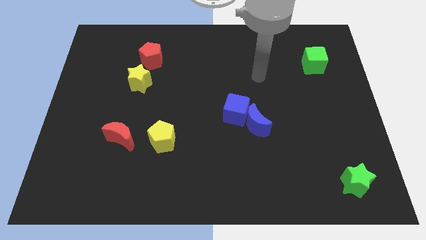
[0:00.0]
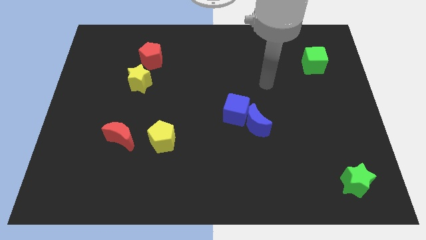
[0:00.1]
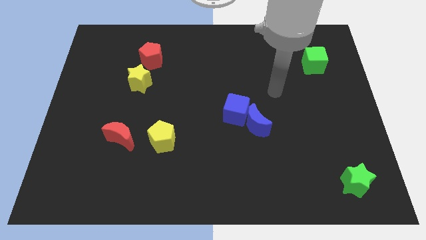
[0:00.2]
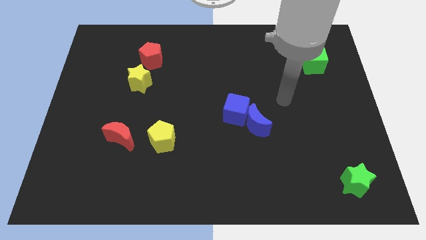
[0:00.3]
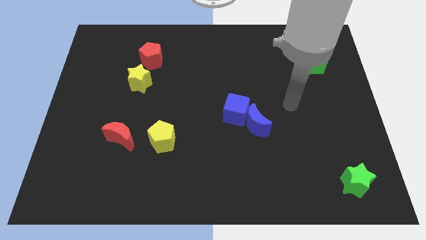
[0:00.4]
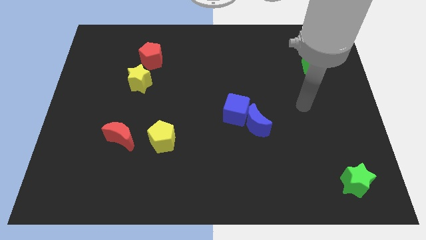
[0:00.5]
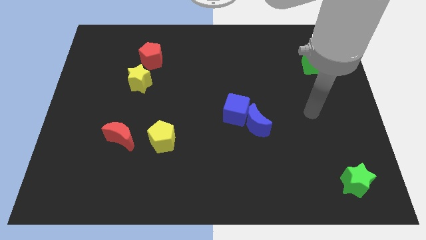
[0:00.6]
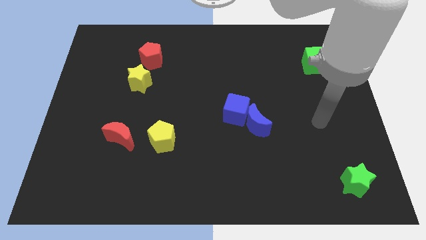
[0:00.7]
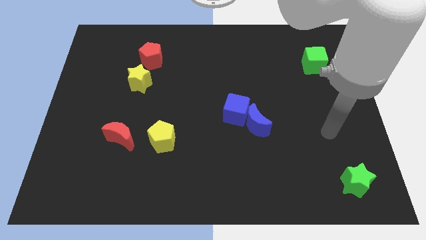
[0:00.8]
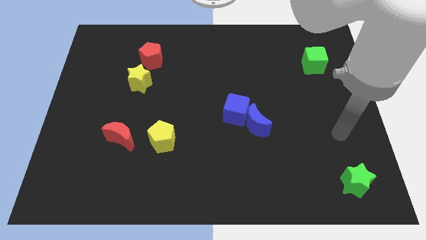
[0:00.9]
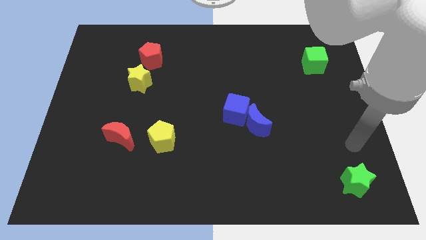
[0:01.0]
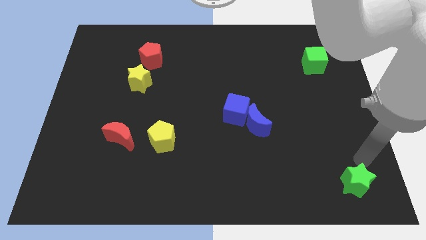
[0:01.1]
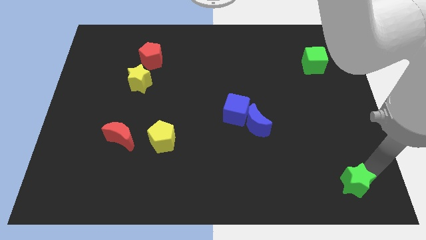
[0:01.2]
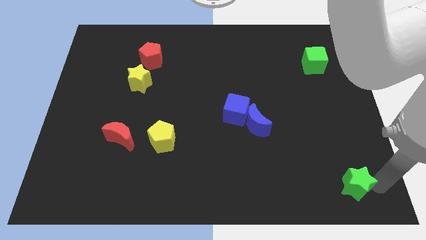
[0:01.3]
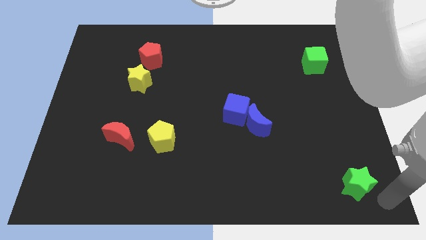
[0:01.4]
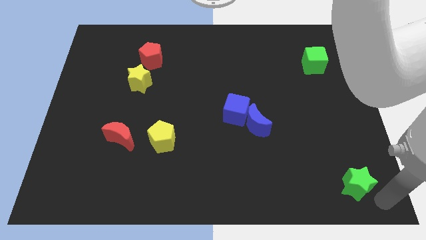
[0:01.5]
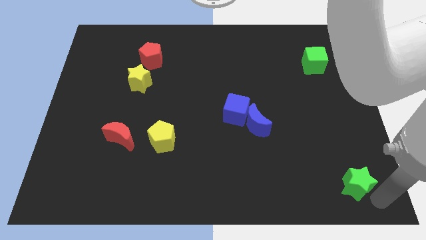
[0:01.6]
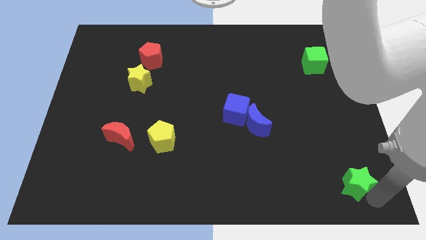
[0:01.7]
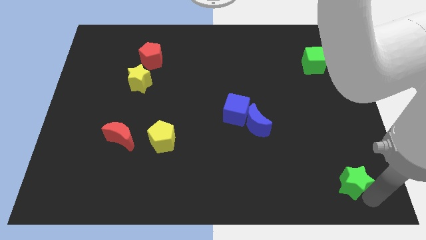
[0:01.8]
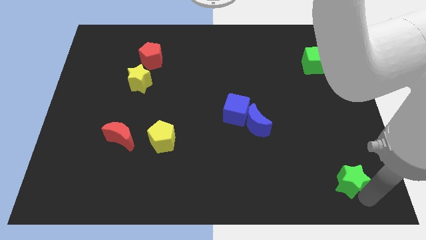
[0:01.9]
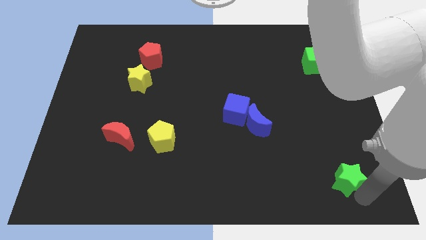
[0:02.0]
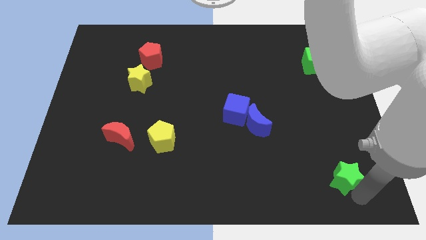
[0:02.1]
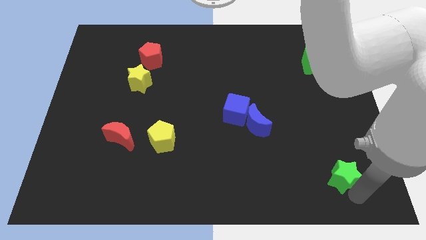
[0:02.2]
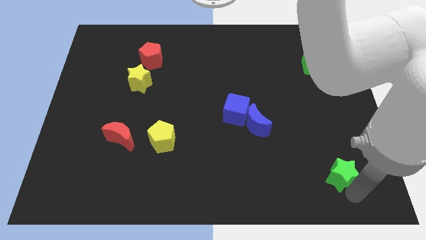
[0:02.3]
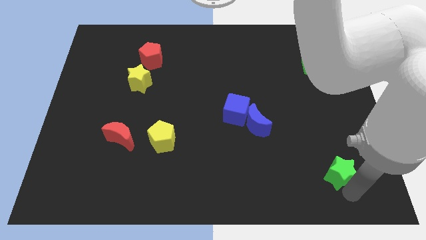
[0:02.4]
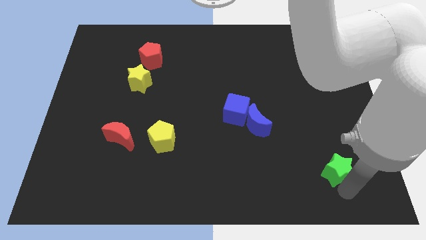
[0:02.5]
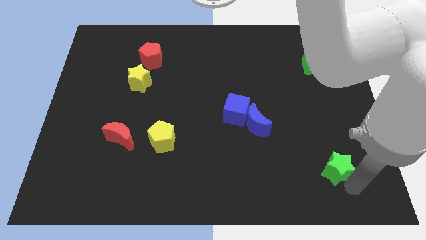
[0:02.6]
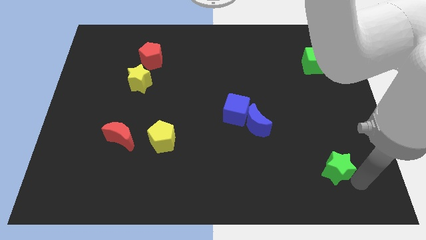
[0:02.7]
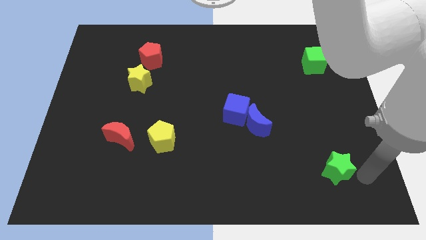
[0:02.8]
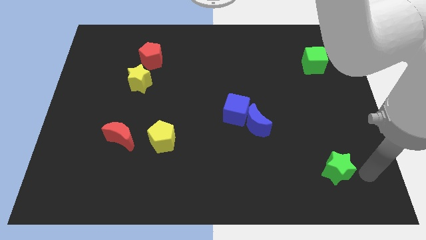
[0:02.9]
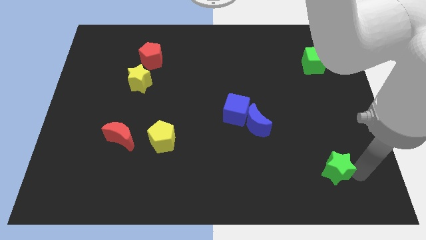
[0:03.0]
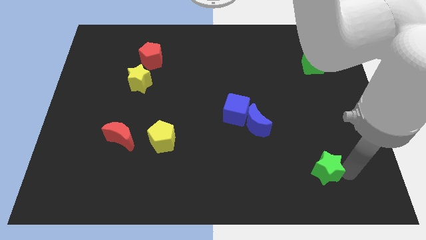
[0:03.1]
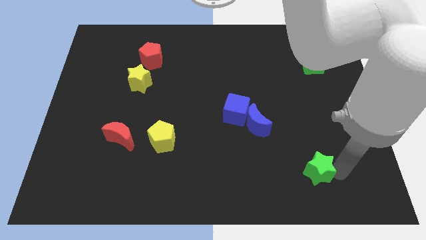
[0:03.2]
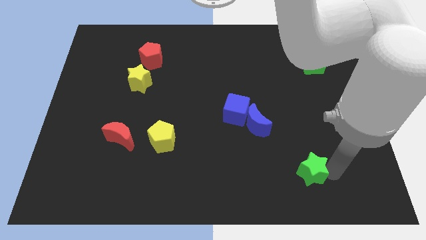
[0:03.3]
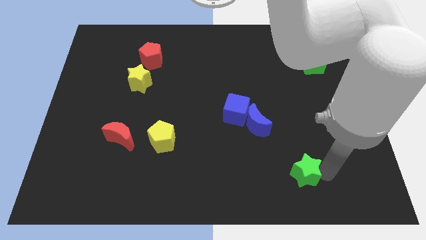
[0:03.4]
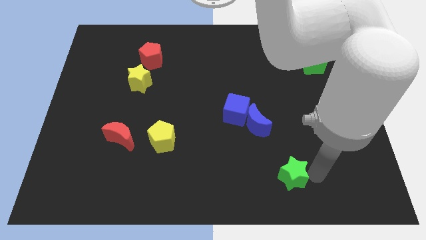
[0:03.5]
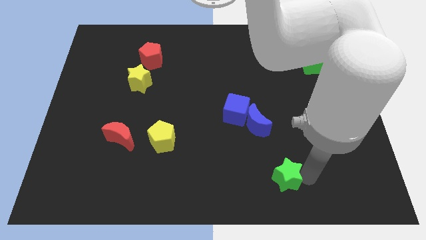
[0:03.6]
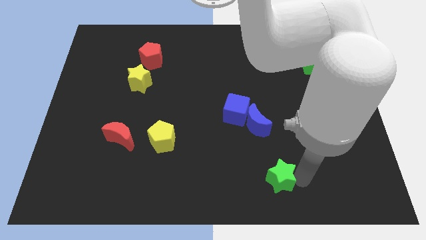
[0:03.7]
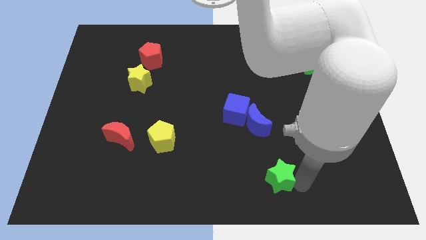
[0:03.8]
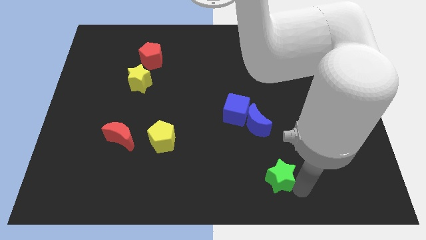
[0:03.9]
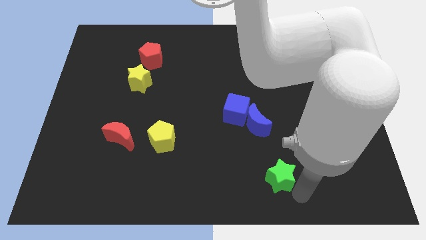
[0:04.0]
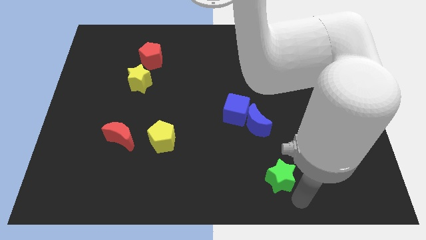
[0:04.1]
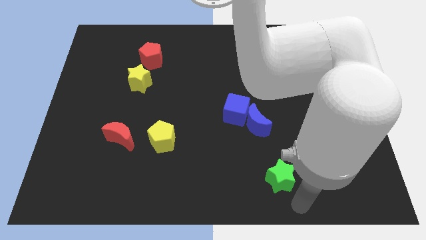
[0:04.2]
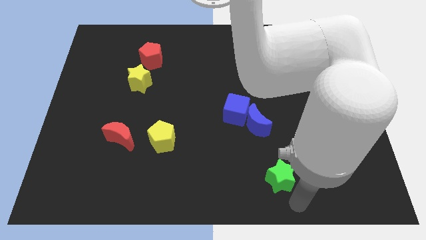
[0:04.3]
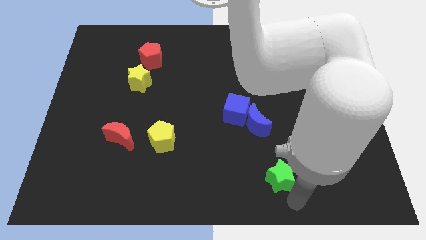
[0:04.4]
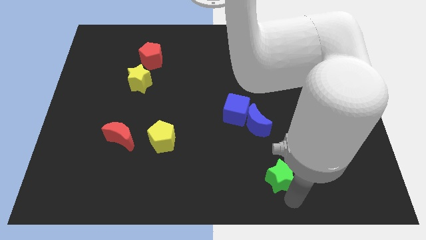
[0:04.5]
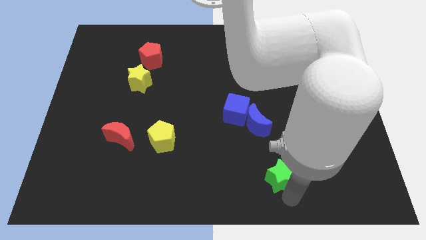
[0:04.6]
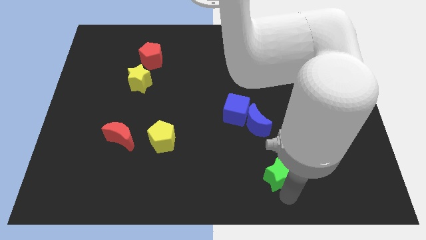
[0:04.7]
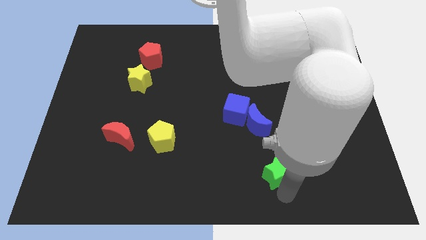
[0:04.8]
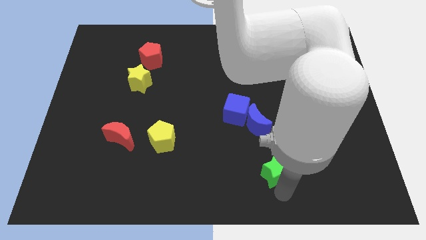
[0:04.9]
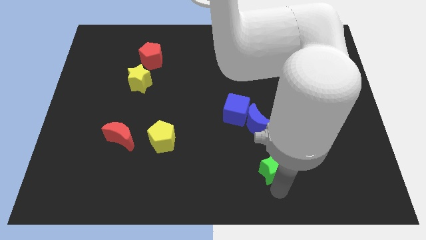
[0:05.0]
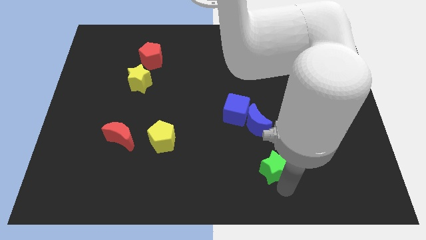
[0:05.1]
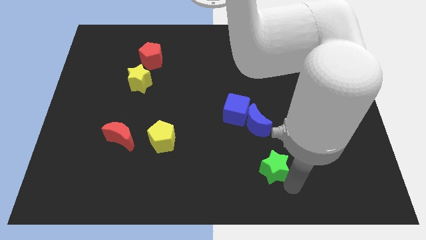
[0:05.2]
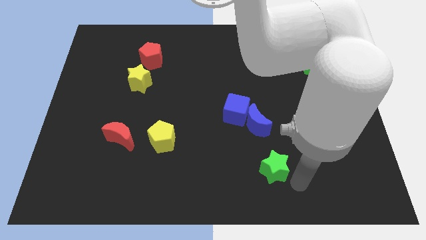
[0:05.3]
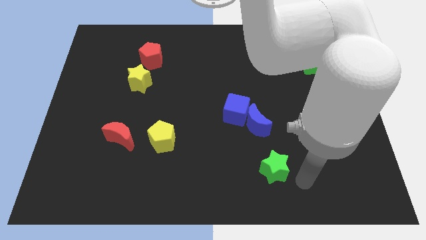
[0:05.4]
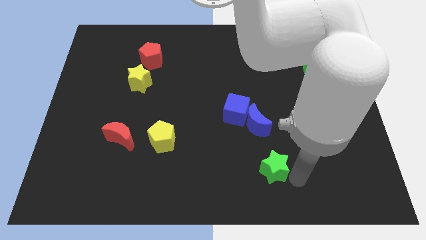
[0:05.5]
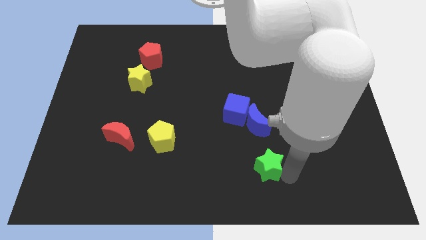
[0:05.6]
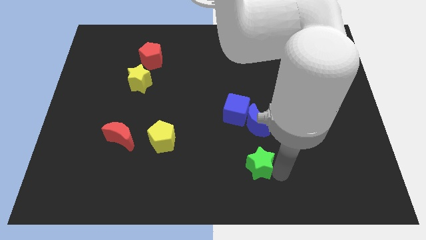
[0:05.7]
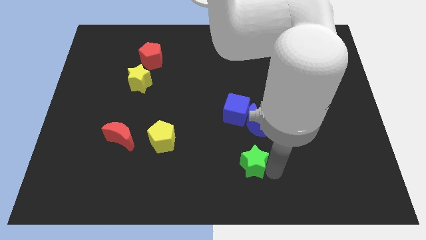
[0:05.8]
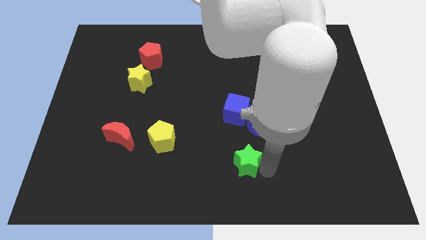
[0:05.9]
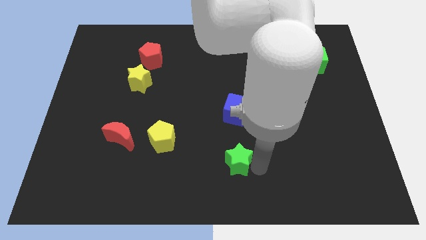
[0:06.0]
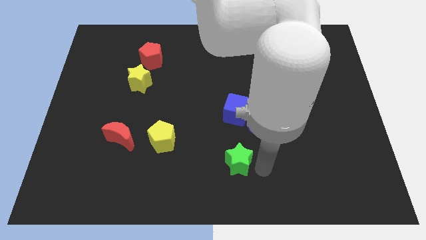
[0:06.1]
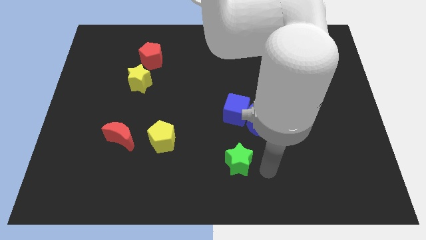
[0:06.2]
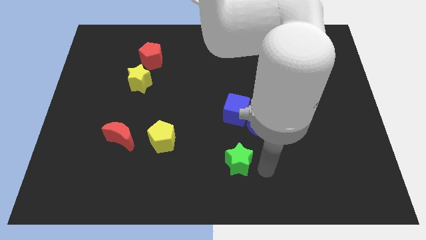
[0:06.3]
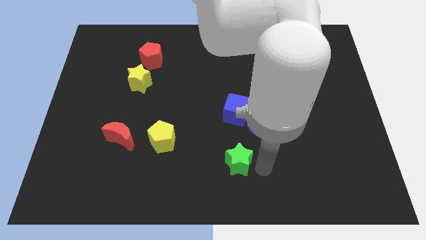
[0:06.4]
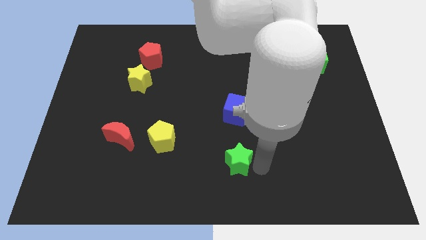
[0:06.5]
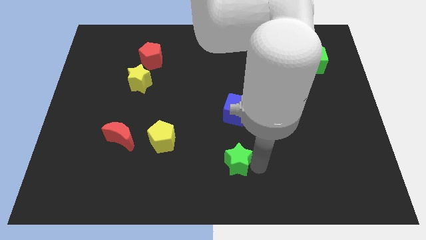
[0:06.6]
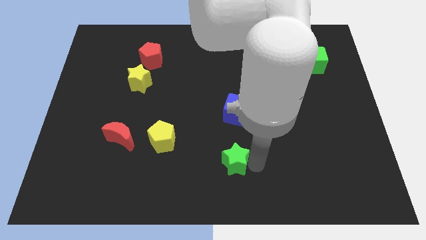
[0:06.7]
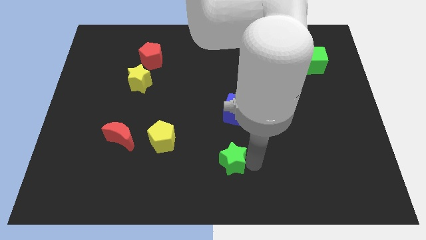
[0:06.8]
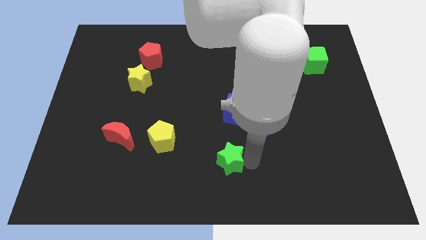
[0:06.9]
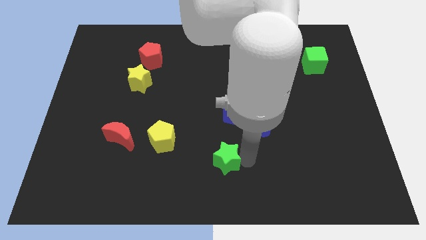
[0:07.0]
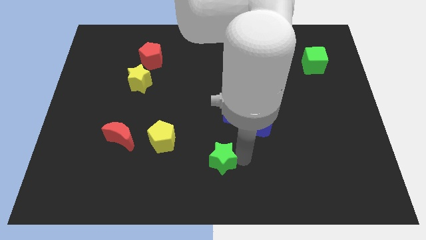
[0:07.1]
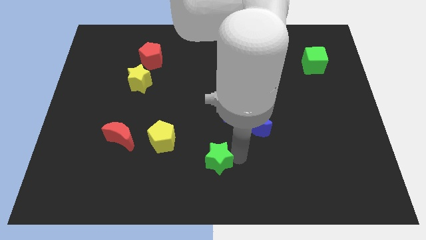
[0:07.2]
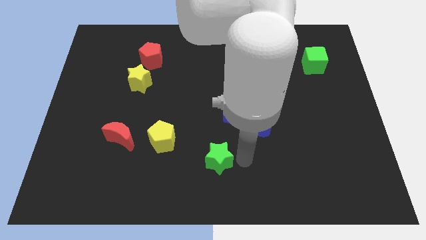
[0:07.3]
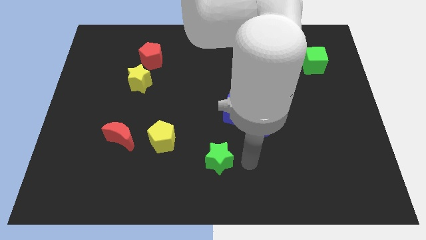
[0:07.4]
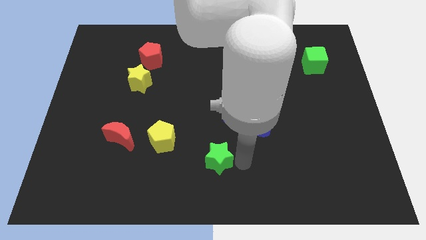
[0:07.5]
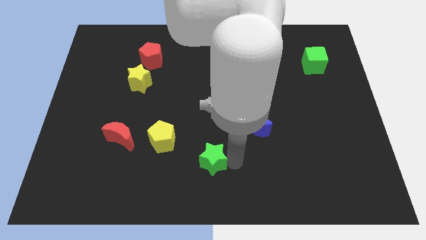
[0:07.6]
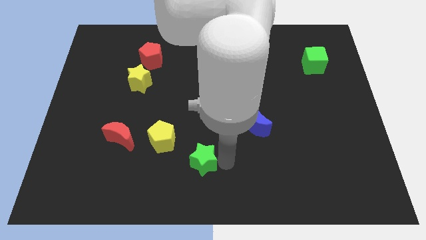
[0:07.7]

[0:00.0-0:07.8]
push the green star to the bottom right side of the yellow pentagon
